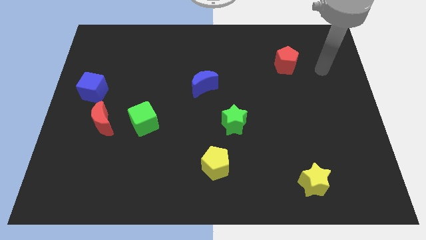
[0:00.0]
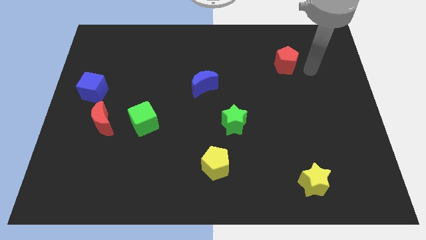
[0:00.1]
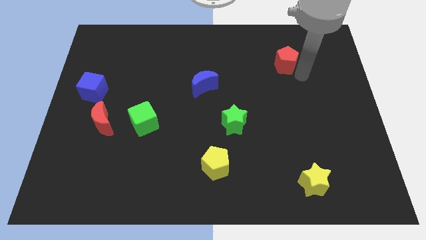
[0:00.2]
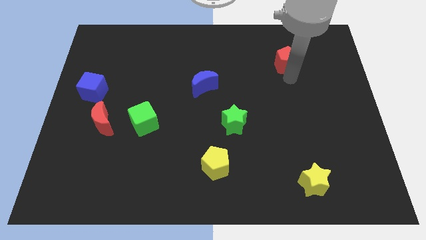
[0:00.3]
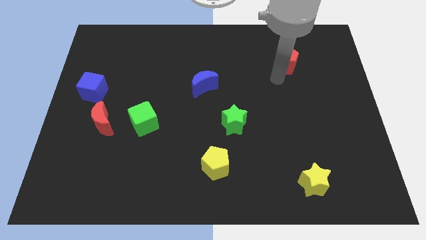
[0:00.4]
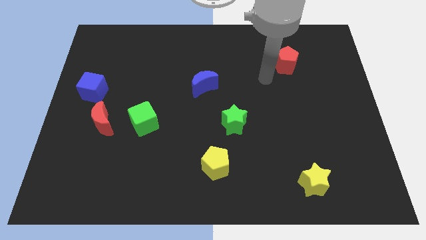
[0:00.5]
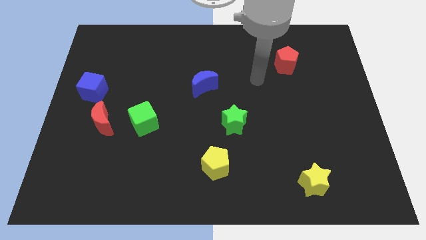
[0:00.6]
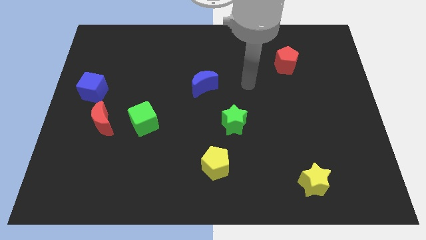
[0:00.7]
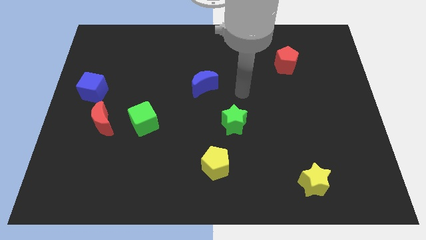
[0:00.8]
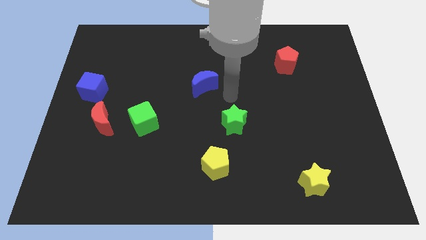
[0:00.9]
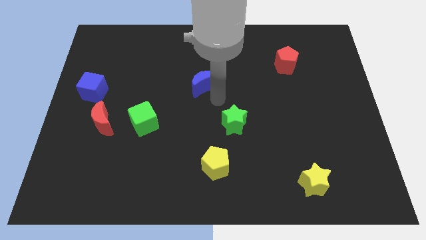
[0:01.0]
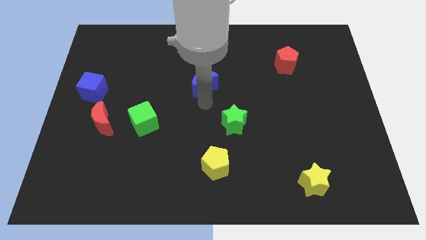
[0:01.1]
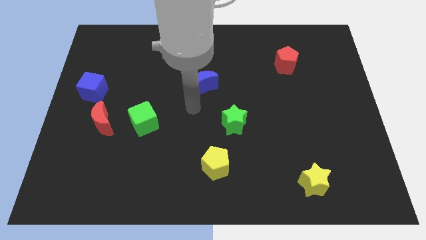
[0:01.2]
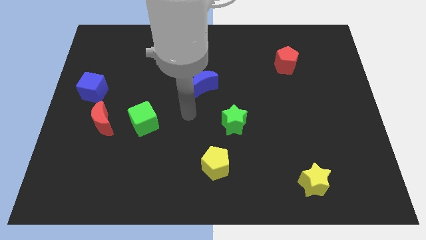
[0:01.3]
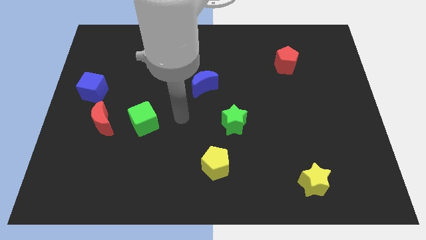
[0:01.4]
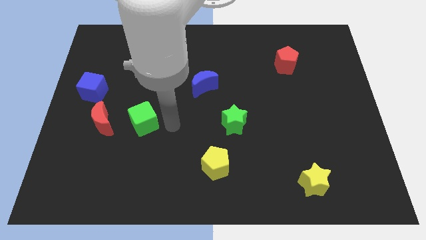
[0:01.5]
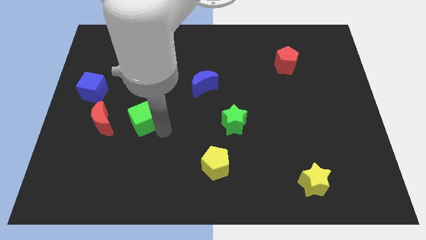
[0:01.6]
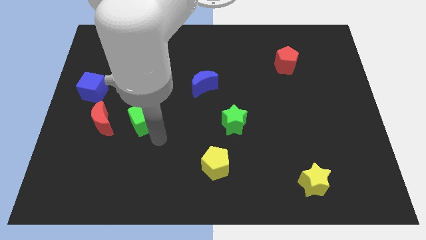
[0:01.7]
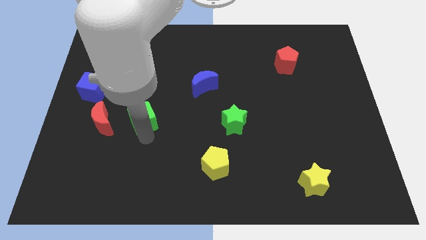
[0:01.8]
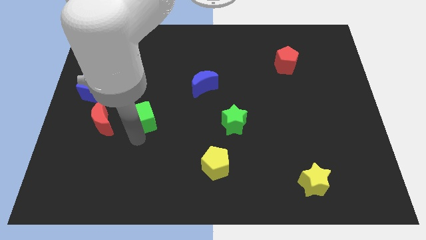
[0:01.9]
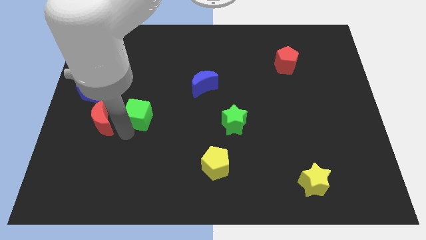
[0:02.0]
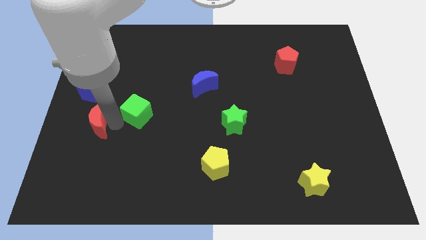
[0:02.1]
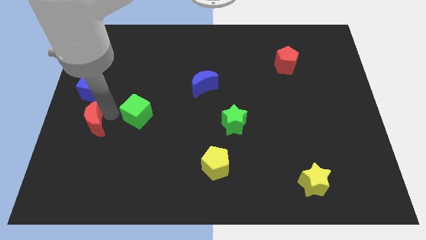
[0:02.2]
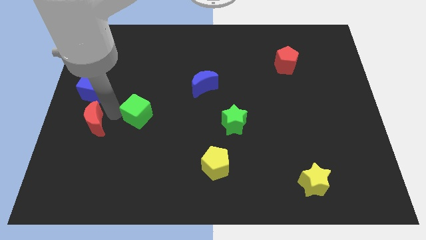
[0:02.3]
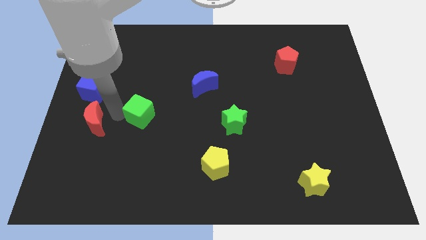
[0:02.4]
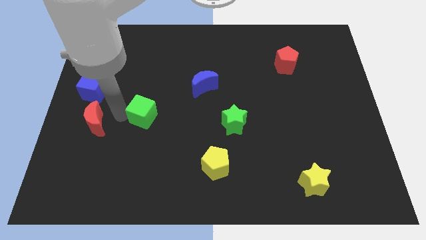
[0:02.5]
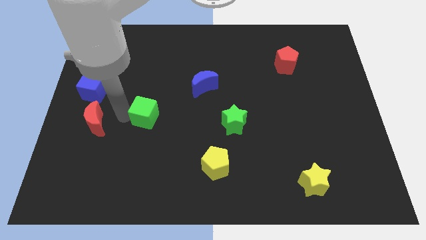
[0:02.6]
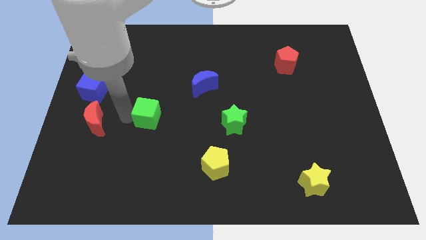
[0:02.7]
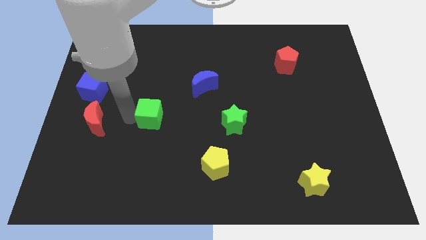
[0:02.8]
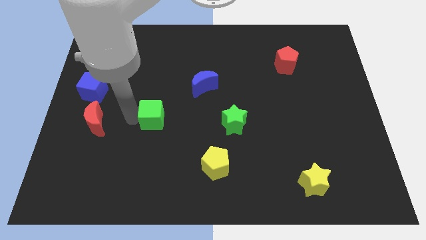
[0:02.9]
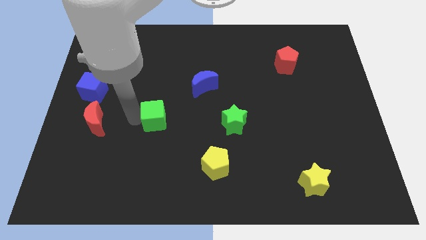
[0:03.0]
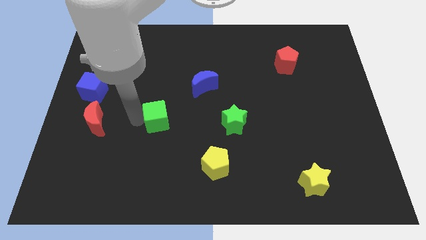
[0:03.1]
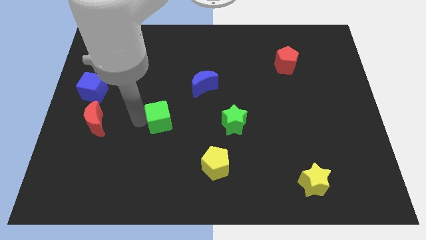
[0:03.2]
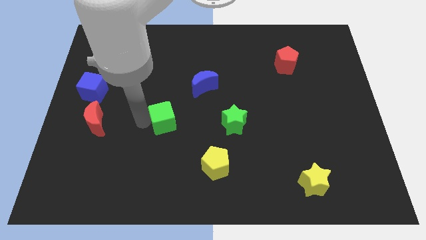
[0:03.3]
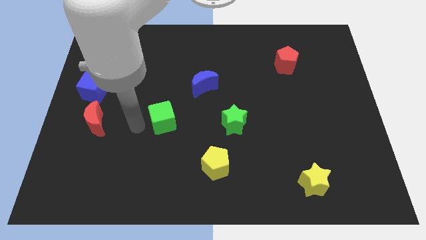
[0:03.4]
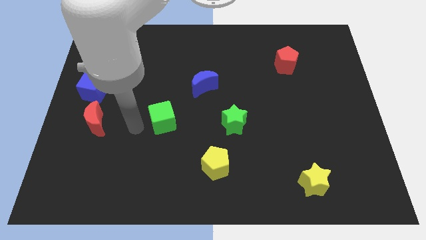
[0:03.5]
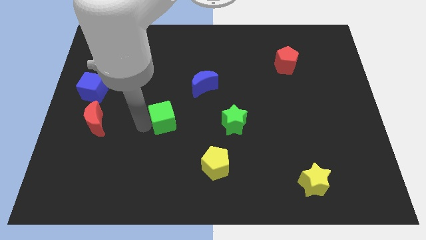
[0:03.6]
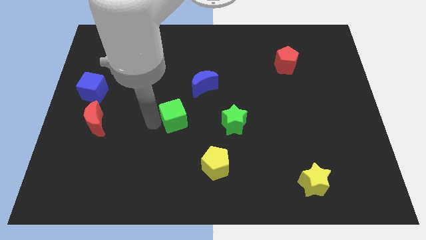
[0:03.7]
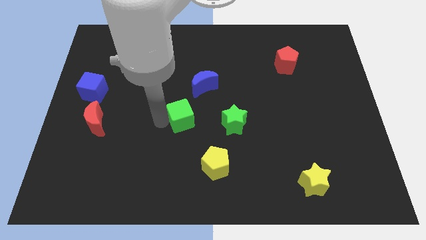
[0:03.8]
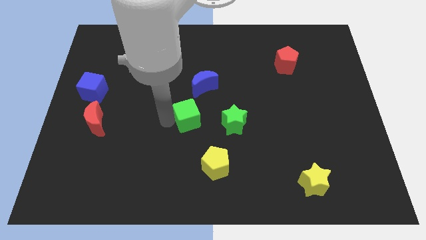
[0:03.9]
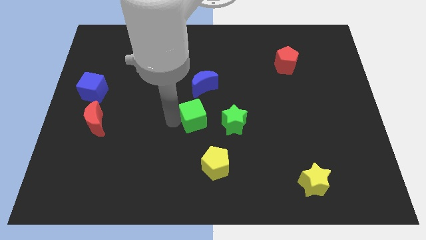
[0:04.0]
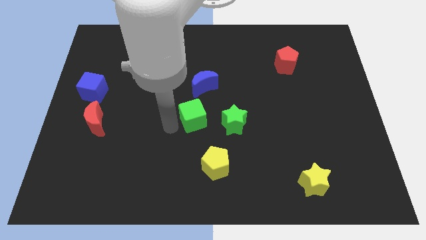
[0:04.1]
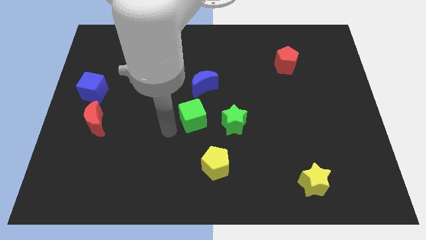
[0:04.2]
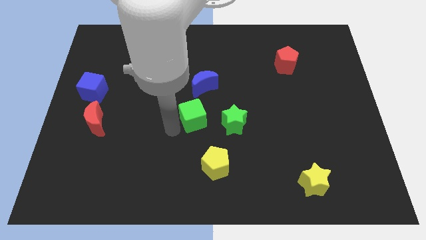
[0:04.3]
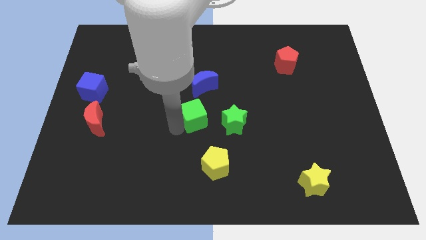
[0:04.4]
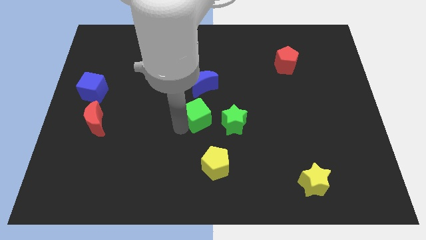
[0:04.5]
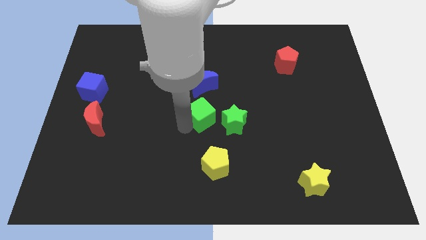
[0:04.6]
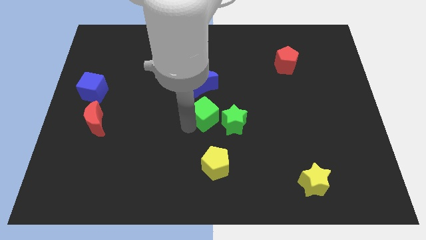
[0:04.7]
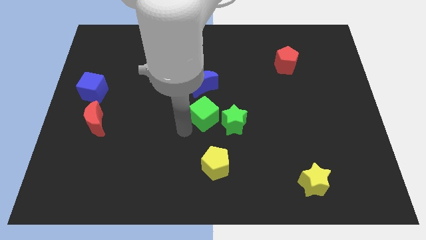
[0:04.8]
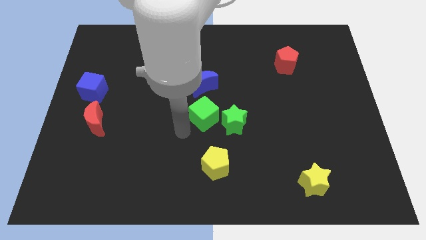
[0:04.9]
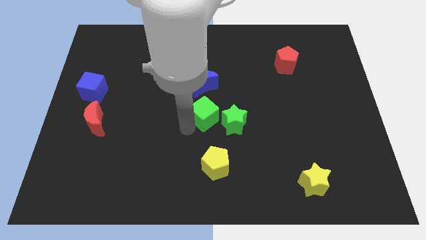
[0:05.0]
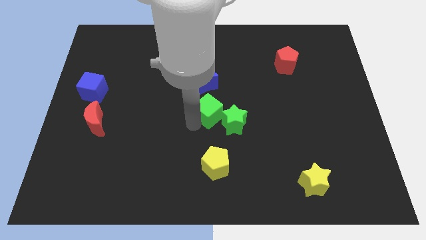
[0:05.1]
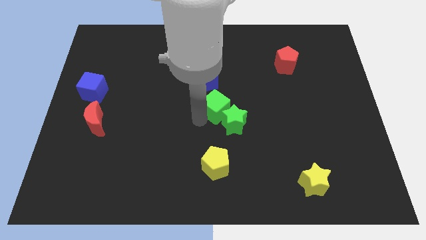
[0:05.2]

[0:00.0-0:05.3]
put the green cube to the bottom right side of the blue moon

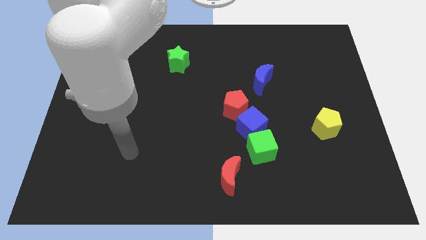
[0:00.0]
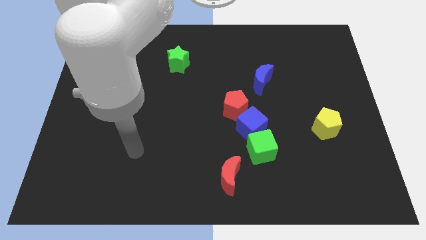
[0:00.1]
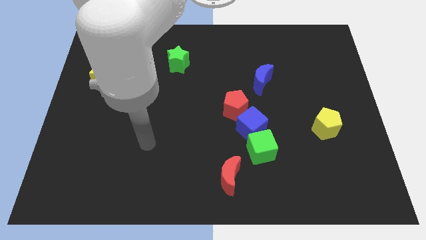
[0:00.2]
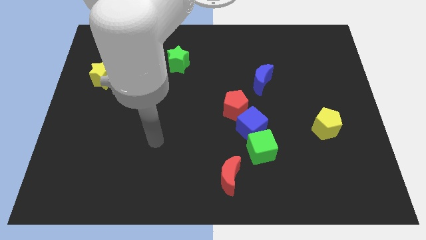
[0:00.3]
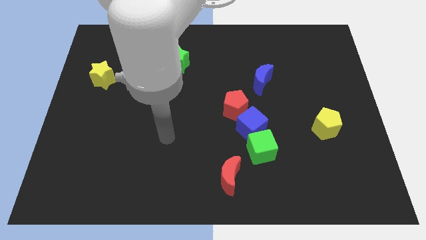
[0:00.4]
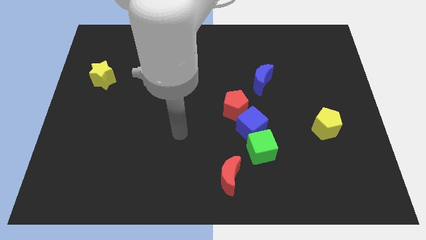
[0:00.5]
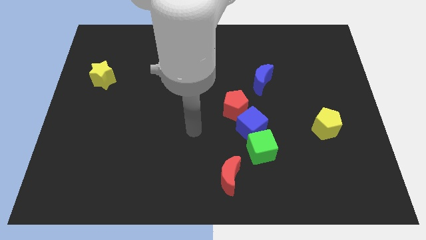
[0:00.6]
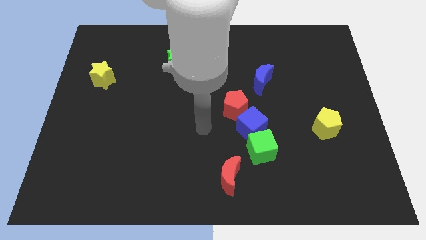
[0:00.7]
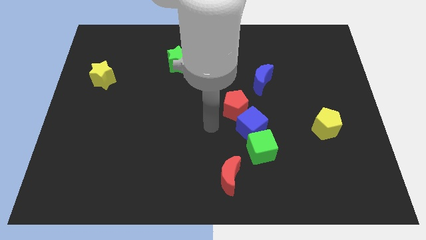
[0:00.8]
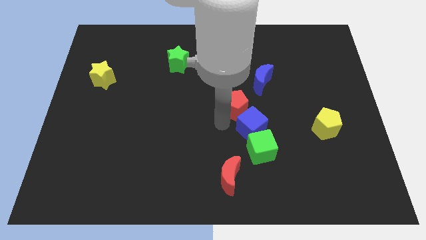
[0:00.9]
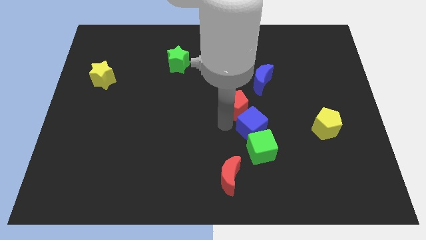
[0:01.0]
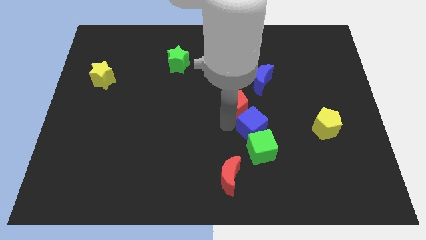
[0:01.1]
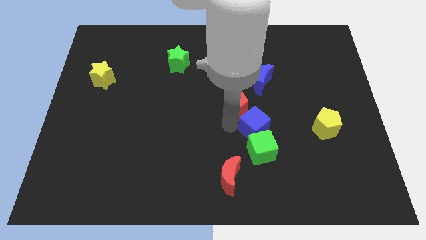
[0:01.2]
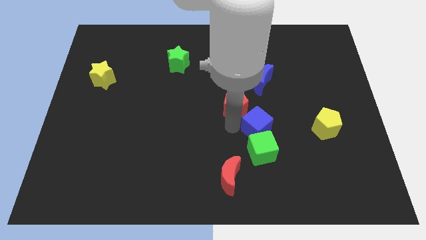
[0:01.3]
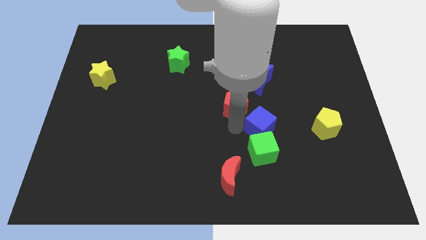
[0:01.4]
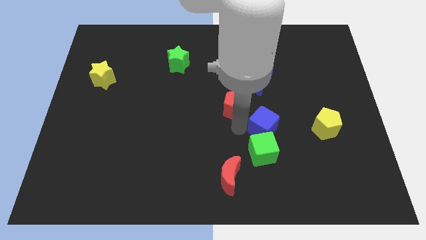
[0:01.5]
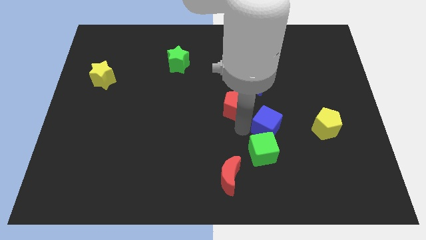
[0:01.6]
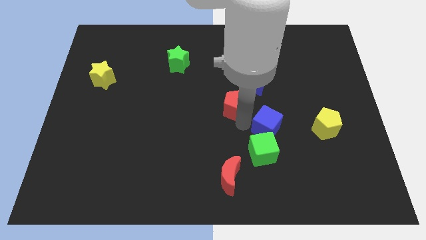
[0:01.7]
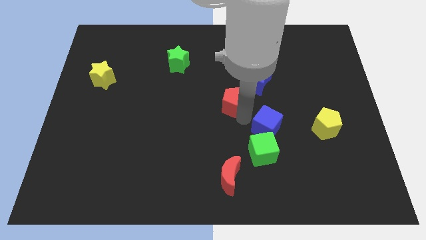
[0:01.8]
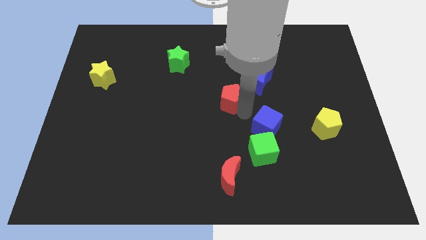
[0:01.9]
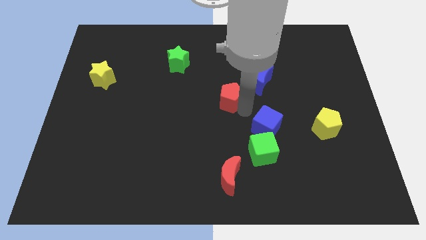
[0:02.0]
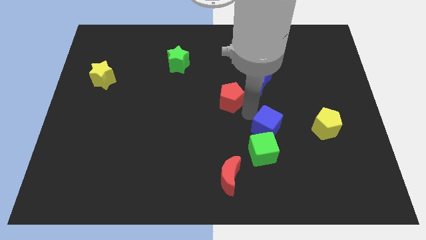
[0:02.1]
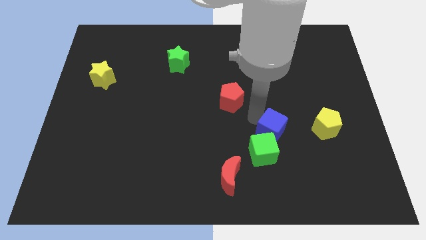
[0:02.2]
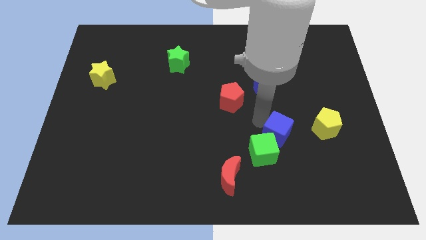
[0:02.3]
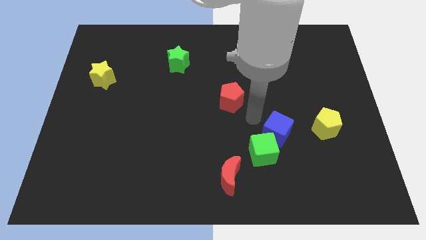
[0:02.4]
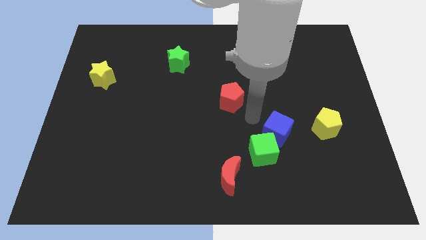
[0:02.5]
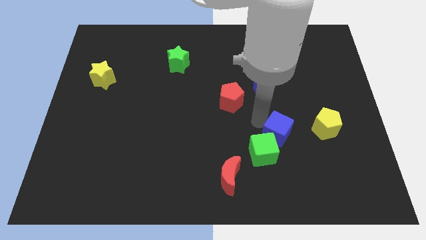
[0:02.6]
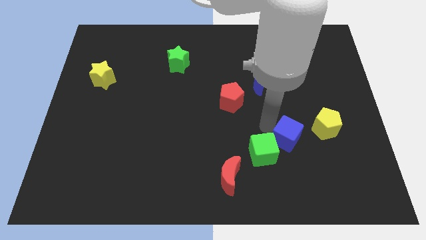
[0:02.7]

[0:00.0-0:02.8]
slide the blue cube to the right side of the green cube
